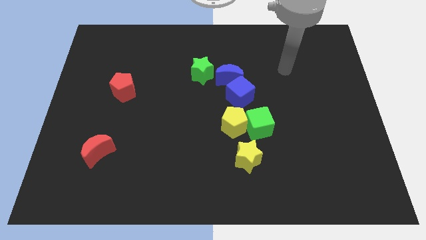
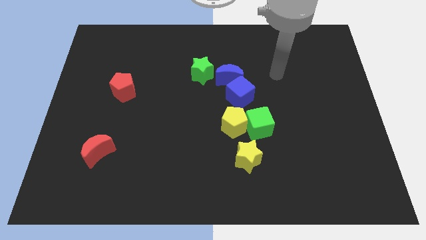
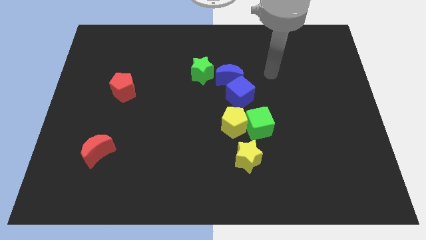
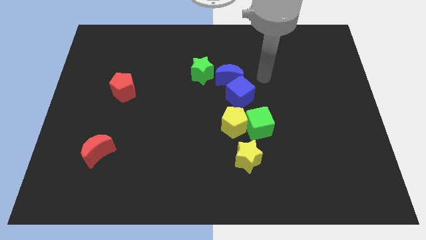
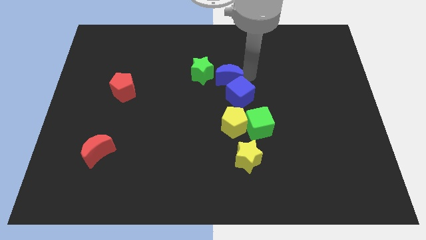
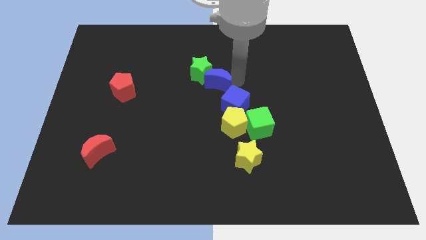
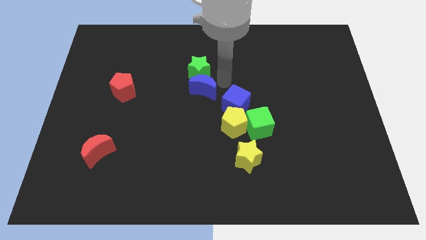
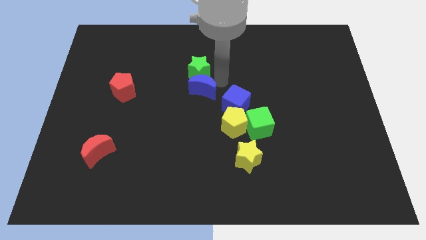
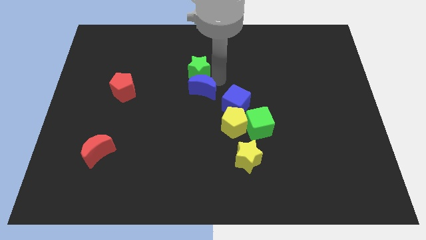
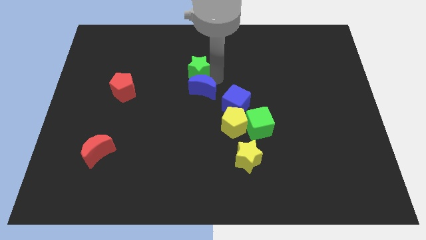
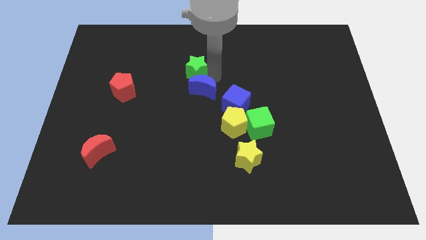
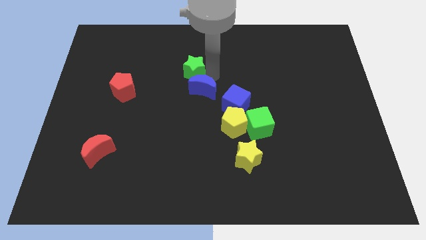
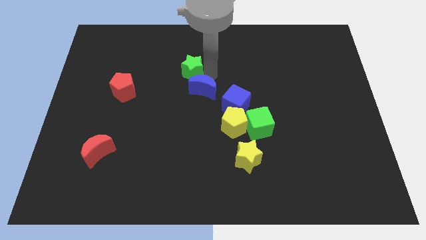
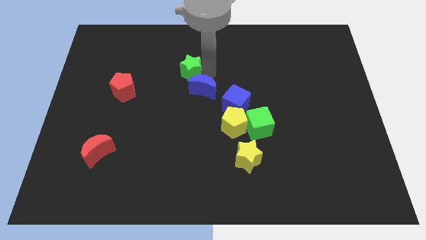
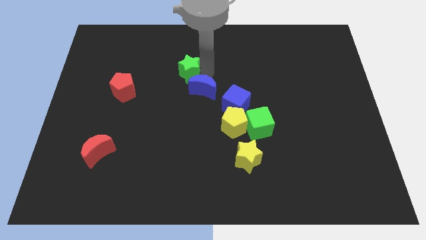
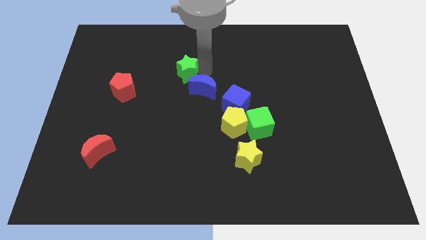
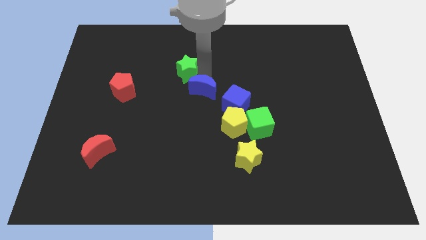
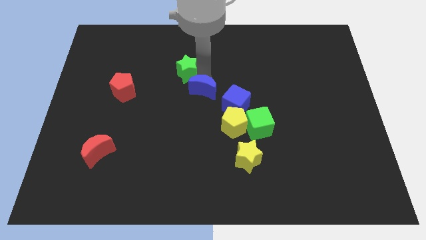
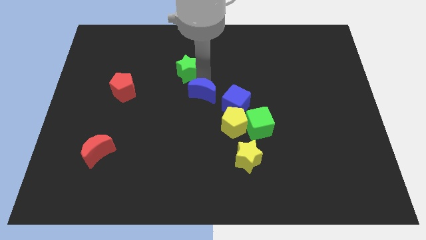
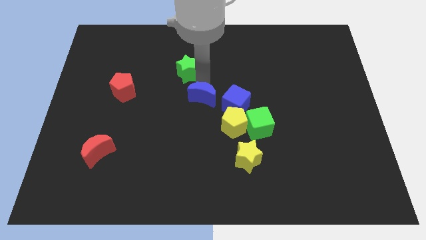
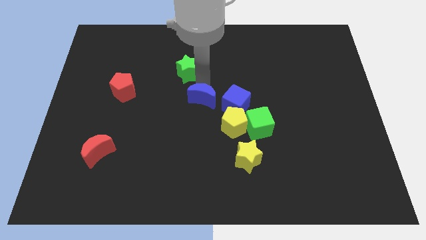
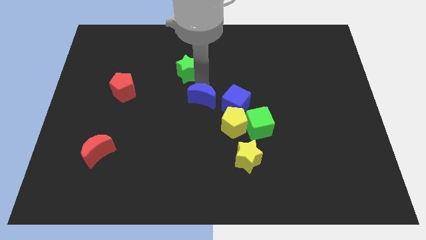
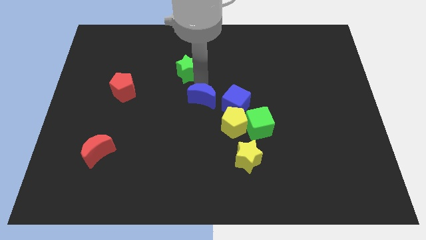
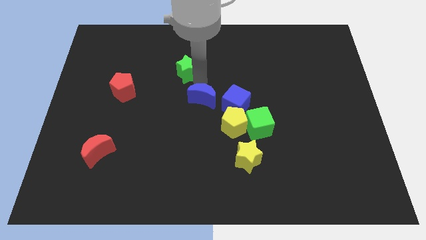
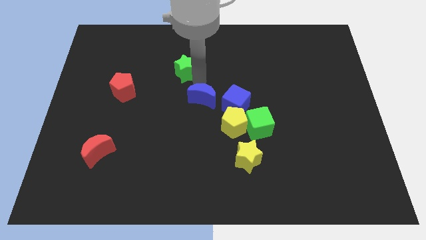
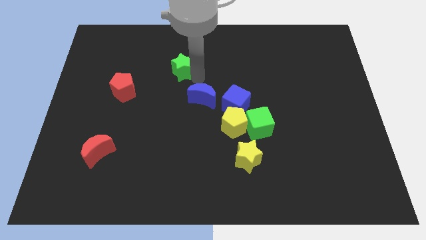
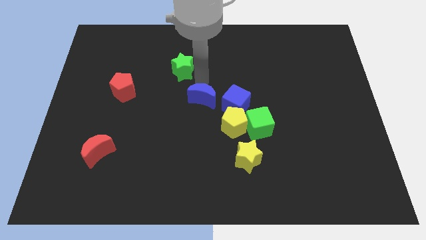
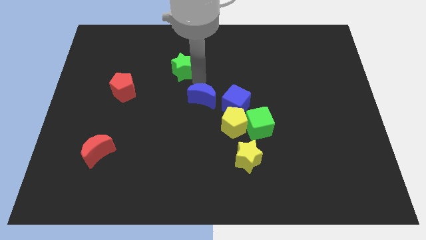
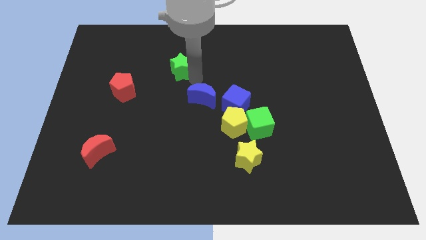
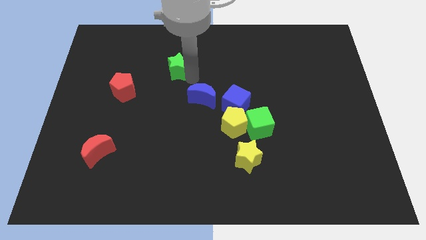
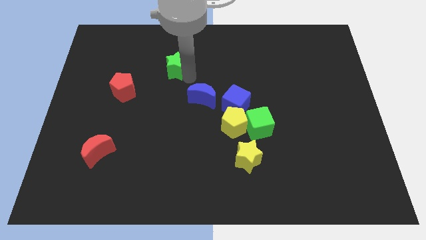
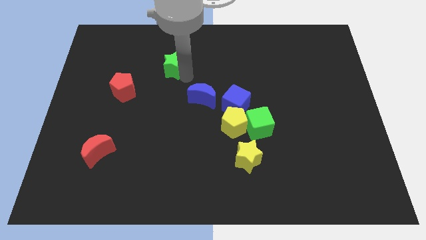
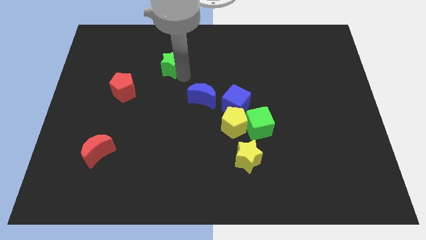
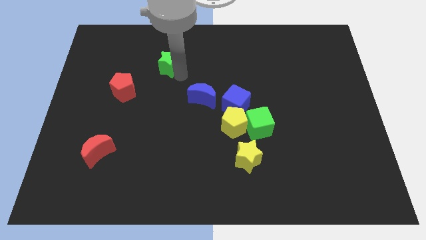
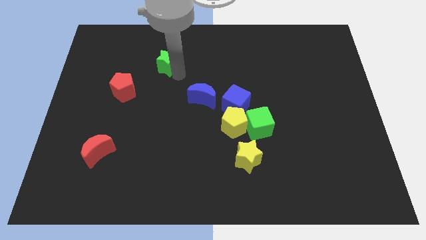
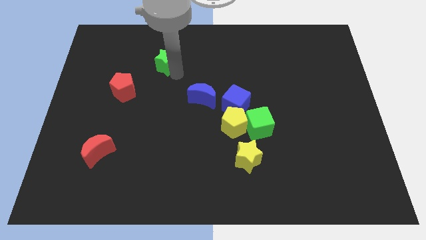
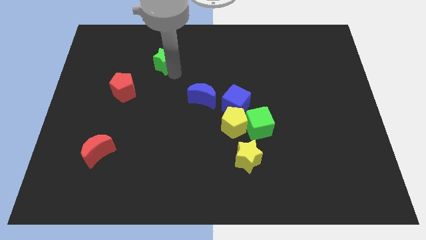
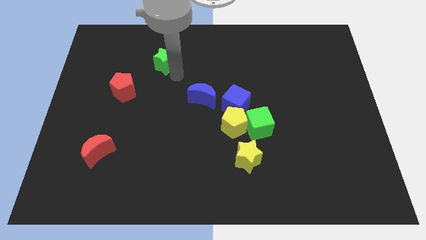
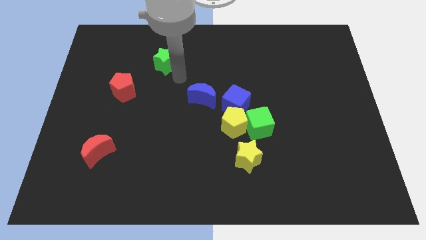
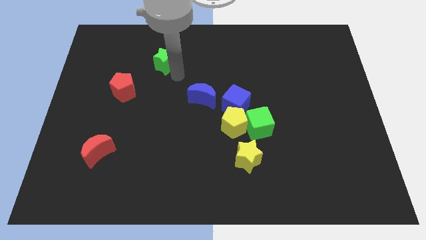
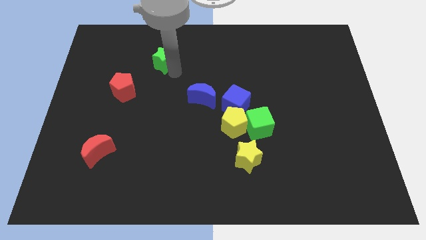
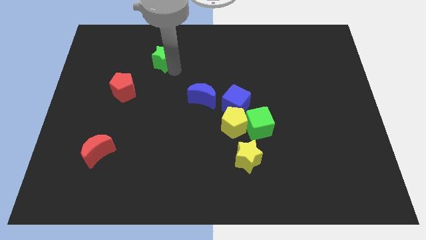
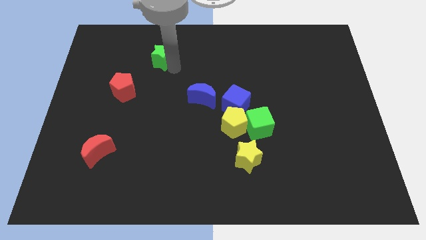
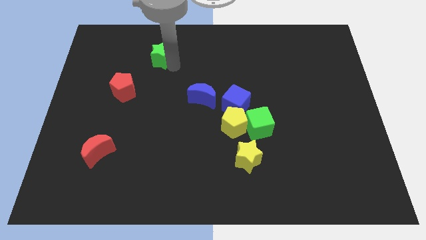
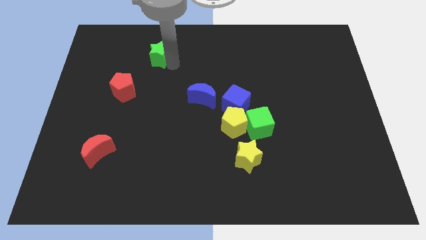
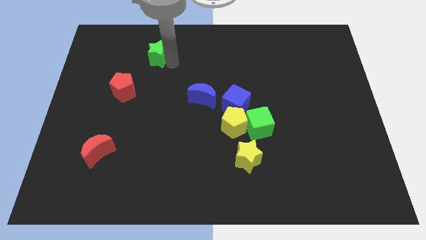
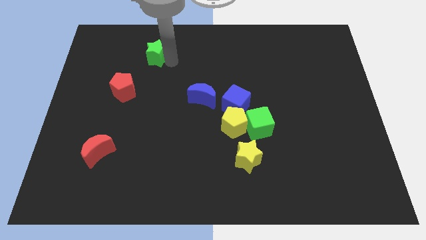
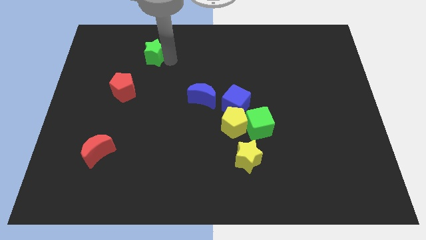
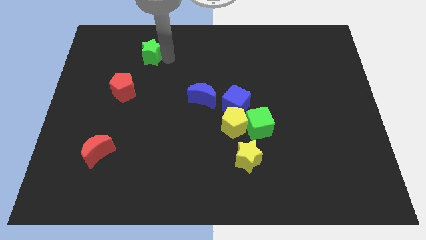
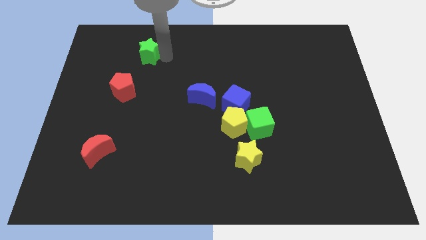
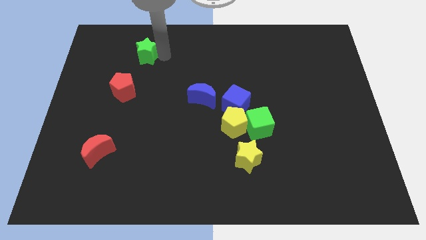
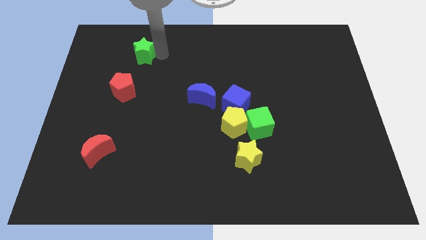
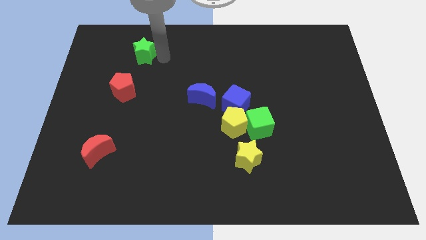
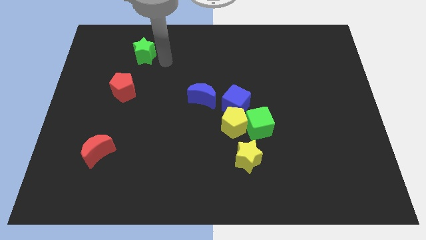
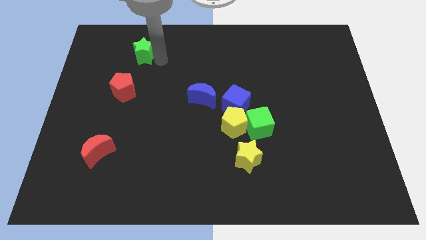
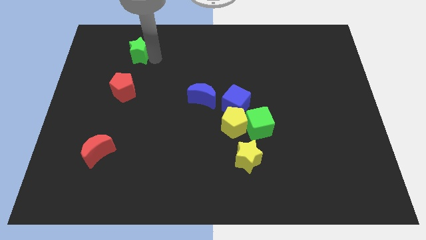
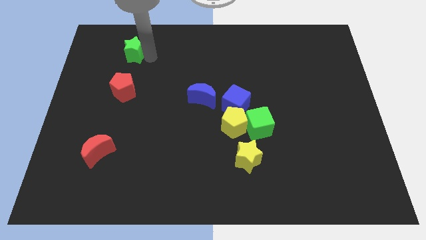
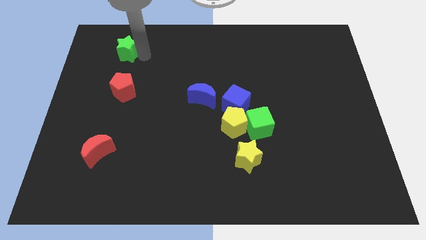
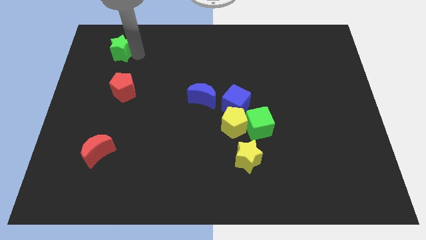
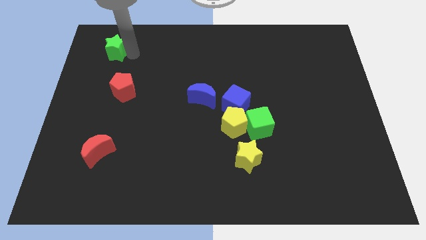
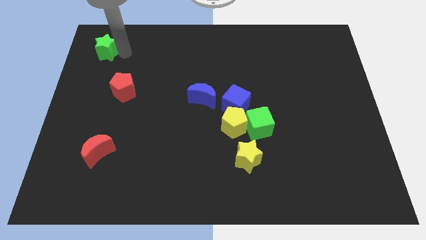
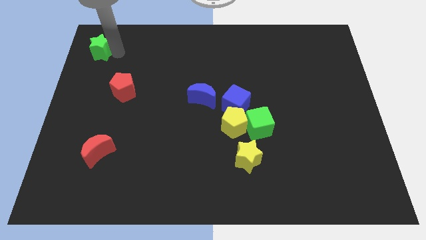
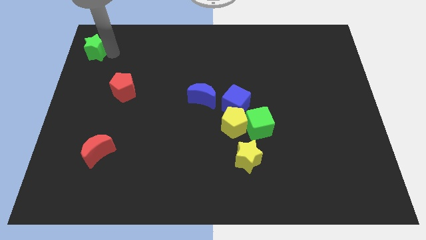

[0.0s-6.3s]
push the green star to the upper left corner
